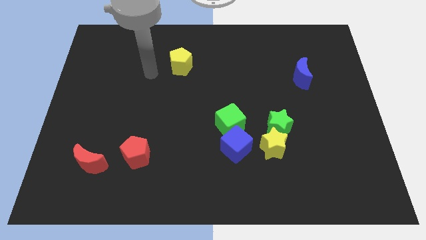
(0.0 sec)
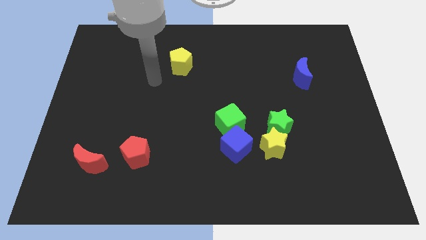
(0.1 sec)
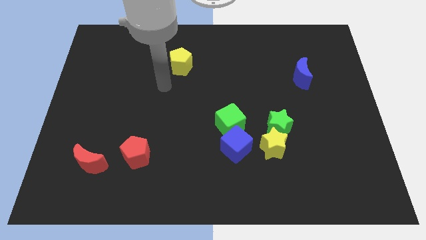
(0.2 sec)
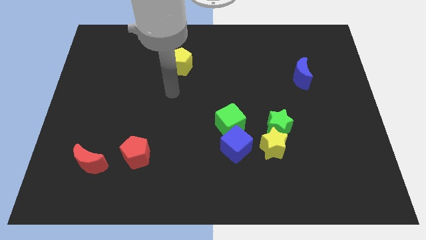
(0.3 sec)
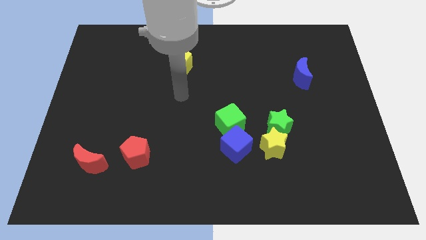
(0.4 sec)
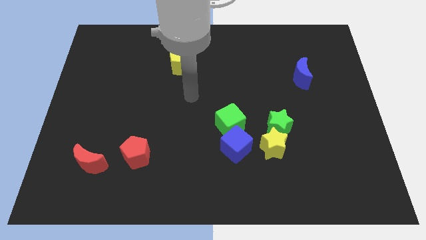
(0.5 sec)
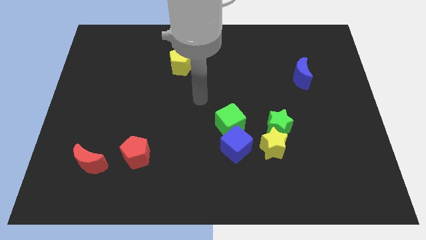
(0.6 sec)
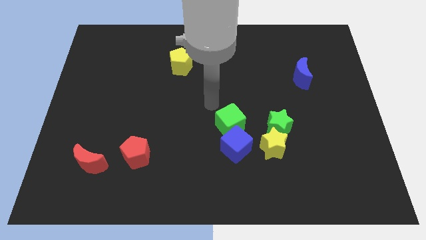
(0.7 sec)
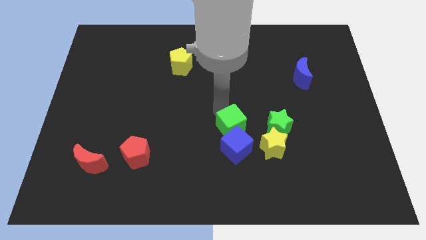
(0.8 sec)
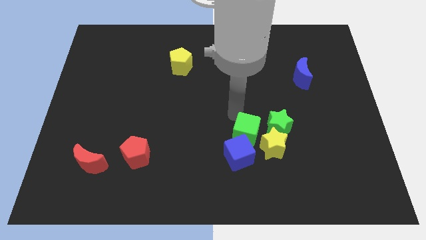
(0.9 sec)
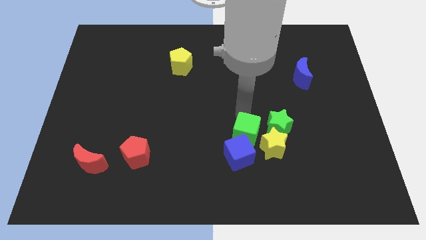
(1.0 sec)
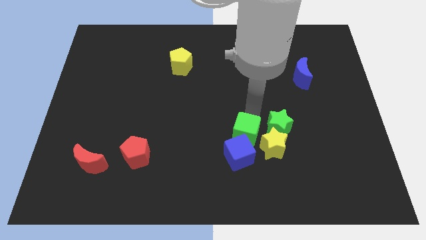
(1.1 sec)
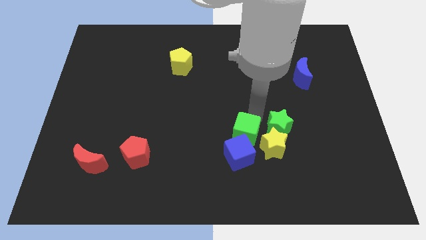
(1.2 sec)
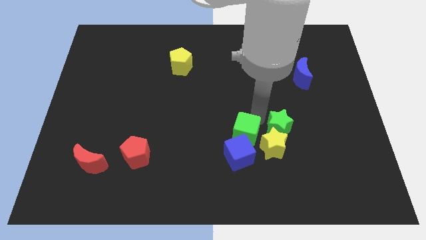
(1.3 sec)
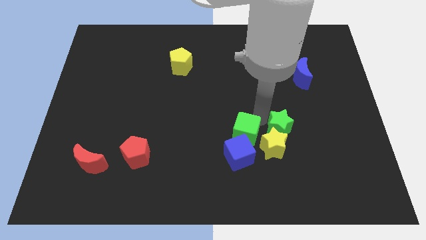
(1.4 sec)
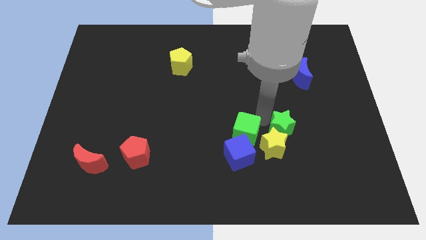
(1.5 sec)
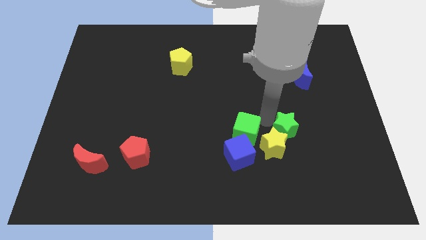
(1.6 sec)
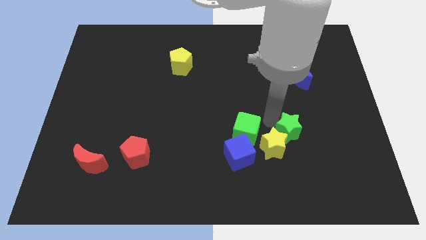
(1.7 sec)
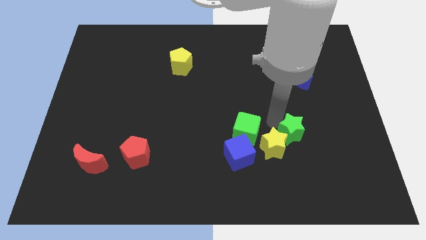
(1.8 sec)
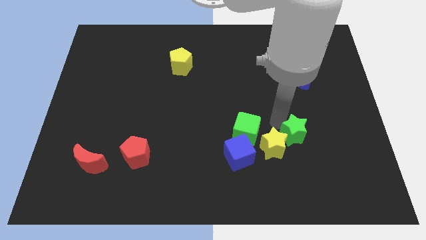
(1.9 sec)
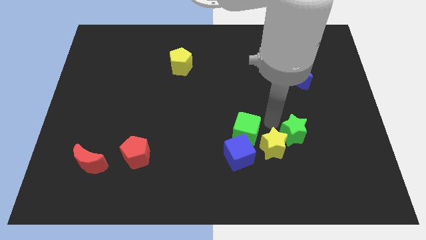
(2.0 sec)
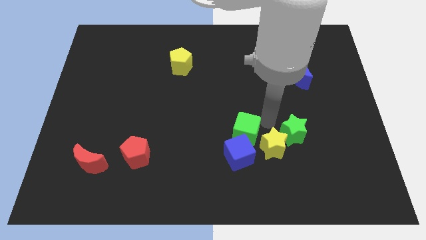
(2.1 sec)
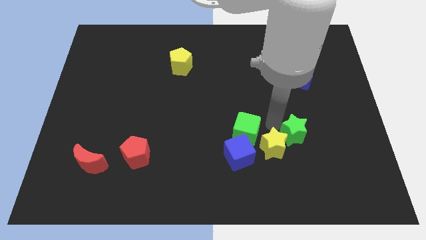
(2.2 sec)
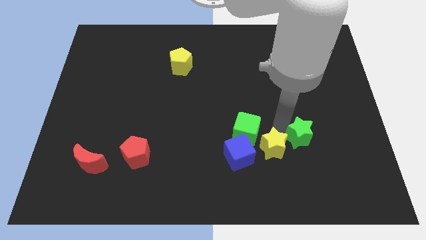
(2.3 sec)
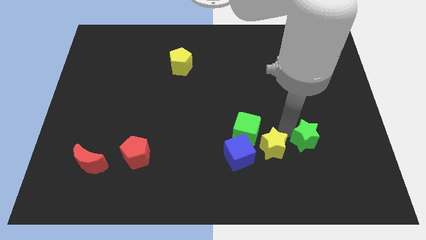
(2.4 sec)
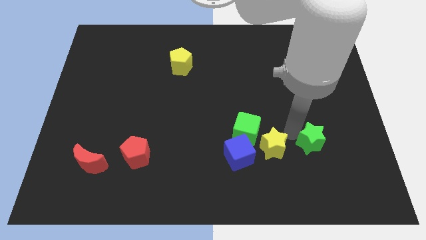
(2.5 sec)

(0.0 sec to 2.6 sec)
slide the green star downwards and to the right a bit

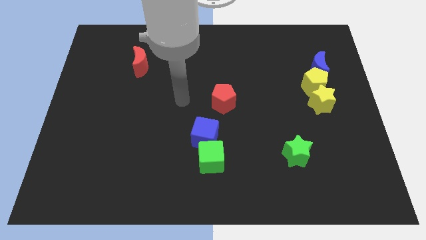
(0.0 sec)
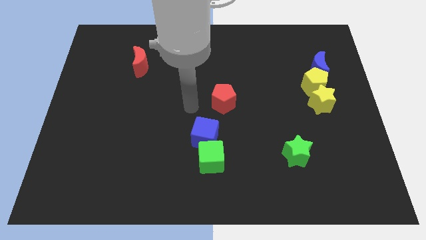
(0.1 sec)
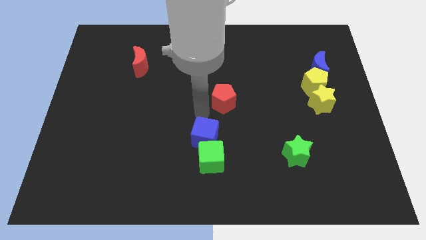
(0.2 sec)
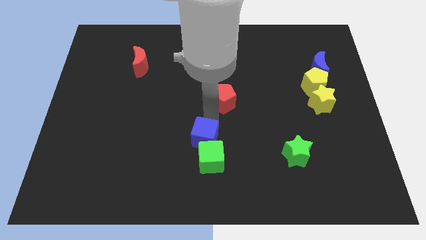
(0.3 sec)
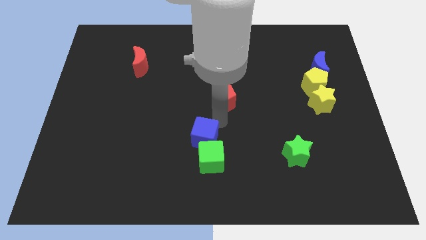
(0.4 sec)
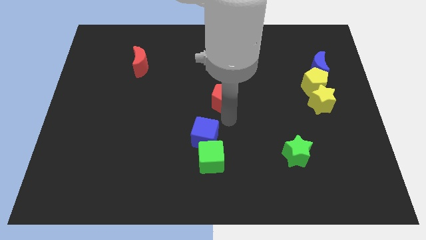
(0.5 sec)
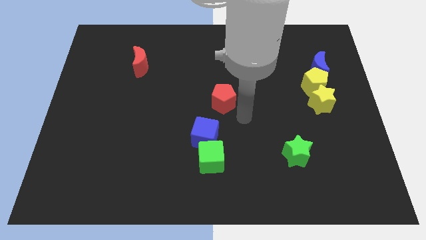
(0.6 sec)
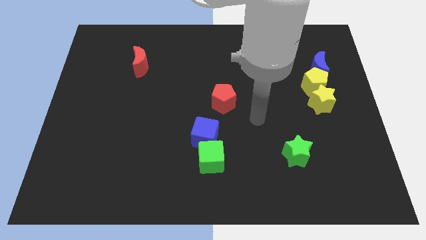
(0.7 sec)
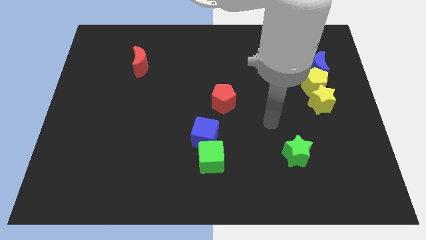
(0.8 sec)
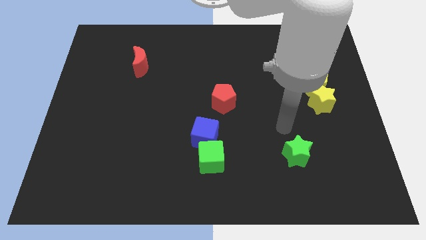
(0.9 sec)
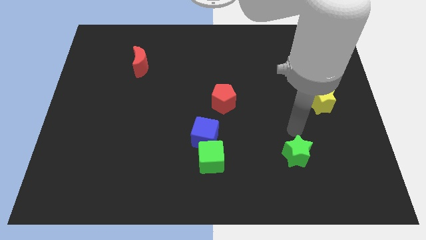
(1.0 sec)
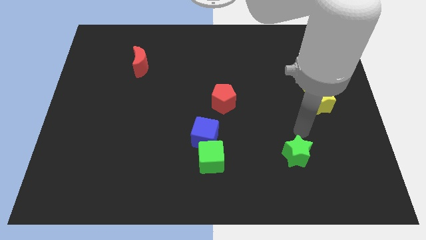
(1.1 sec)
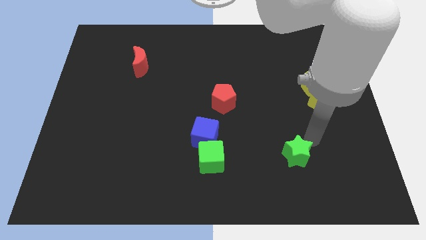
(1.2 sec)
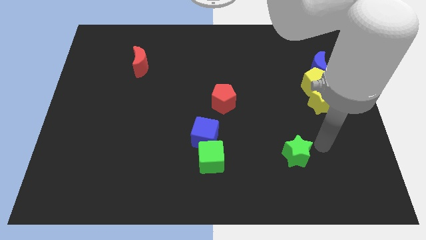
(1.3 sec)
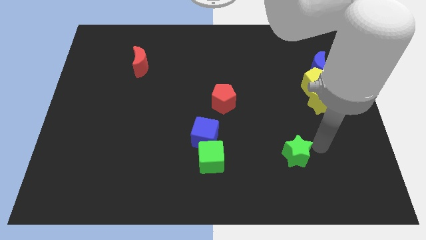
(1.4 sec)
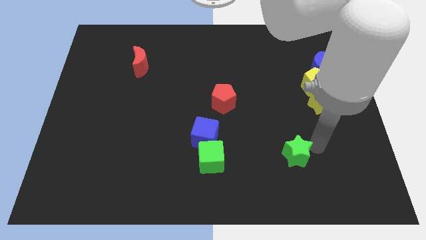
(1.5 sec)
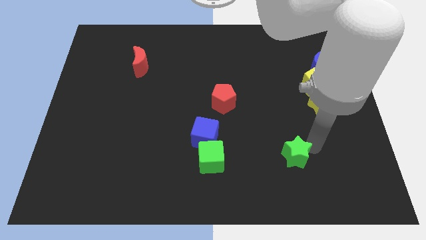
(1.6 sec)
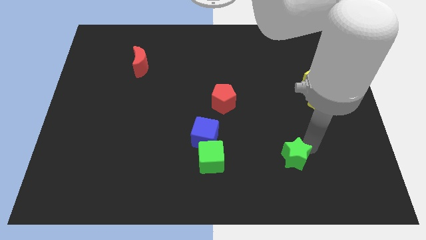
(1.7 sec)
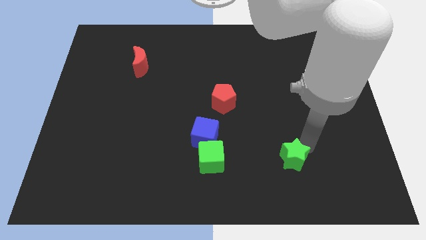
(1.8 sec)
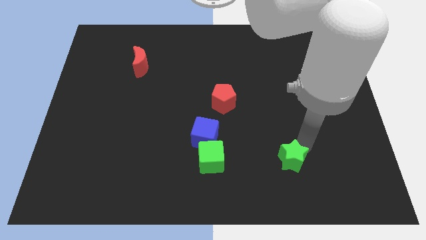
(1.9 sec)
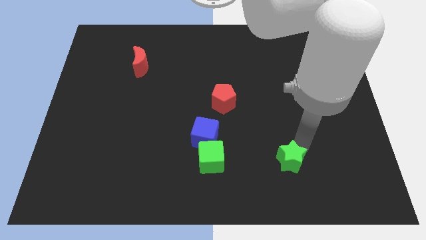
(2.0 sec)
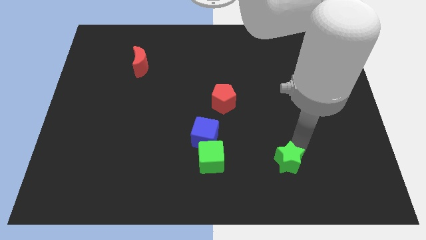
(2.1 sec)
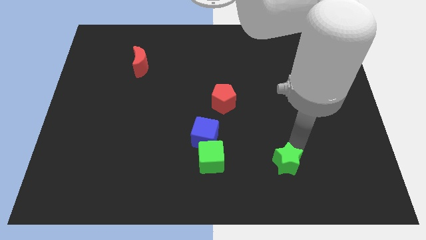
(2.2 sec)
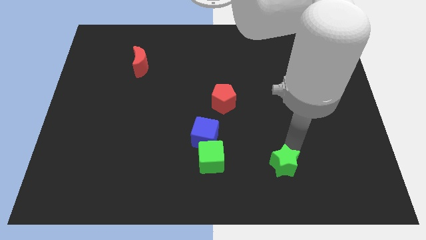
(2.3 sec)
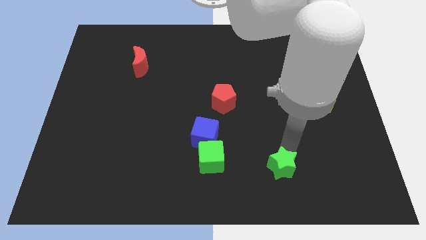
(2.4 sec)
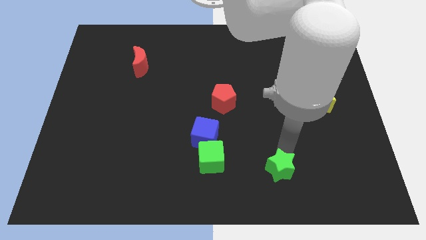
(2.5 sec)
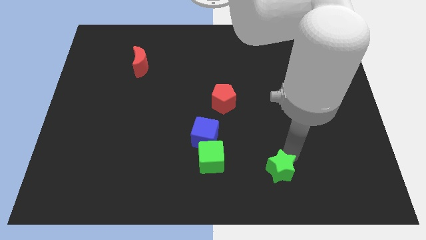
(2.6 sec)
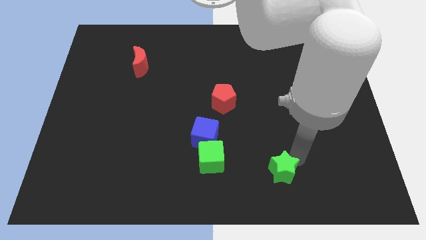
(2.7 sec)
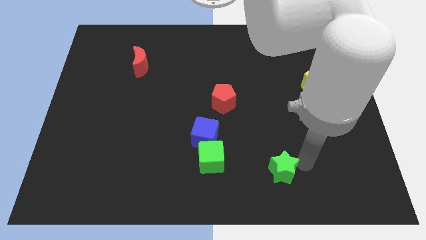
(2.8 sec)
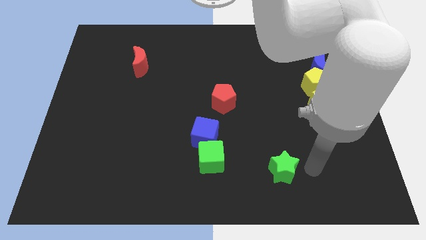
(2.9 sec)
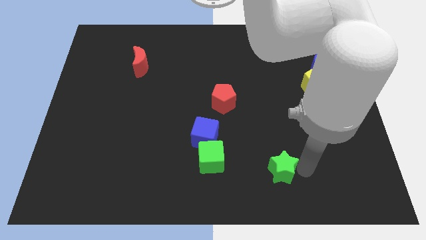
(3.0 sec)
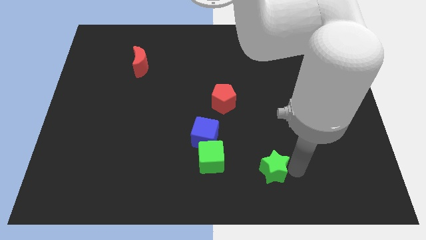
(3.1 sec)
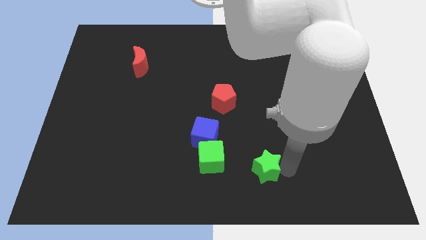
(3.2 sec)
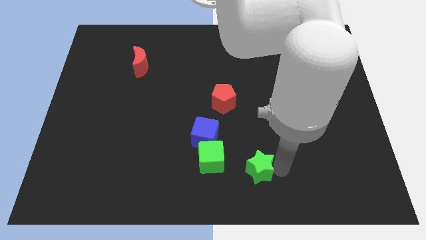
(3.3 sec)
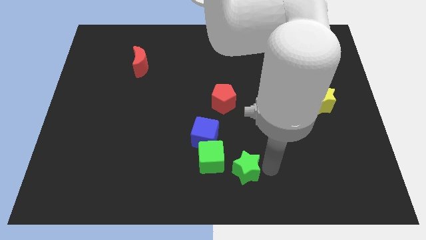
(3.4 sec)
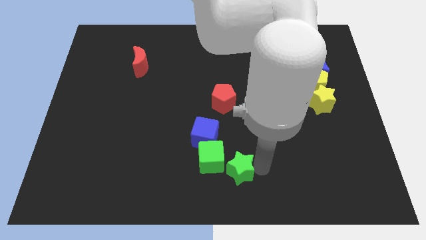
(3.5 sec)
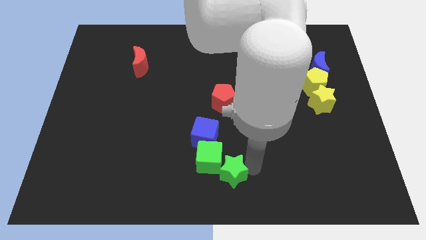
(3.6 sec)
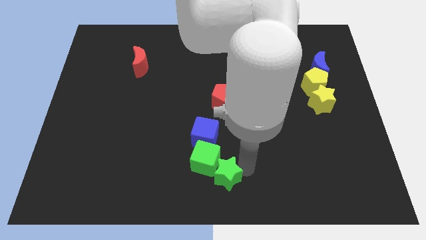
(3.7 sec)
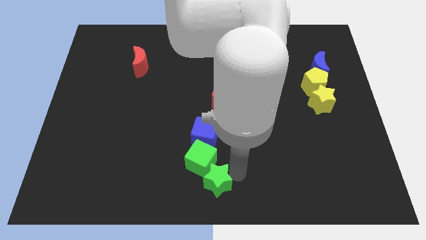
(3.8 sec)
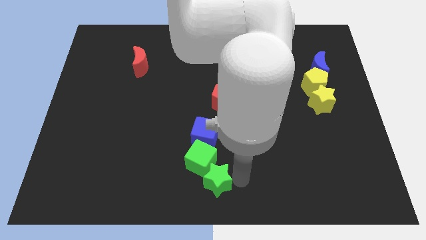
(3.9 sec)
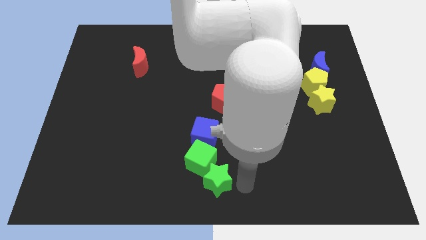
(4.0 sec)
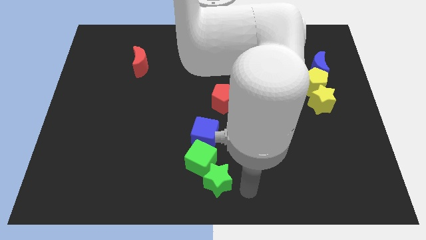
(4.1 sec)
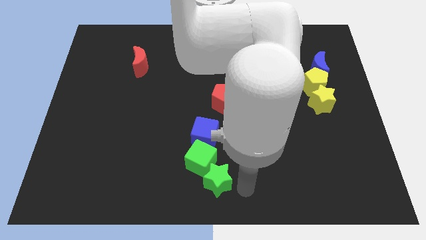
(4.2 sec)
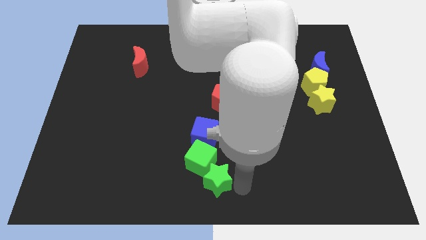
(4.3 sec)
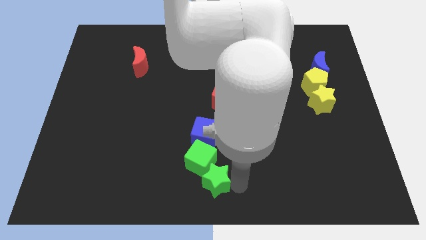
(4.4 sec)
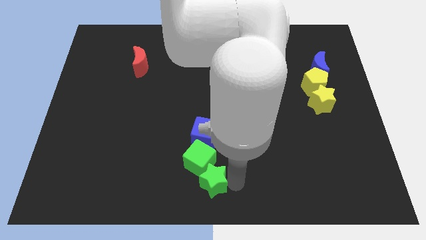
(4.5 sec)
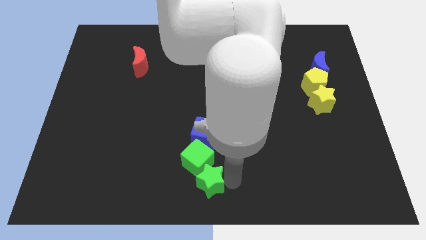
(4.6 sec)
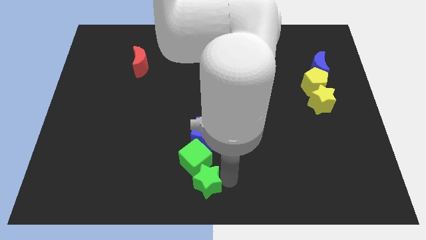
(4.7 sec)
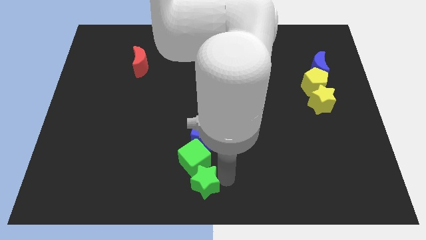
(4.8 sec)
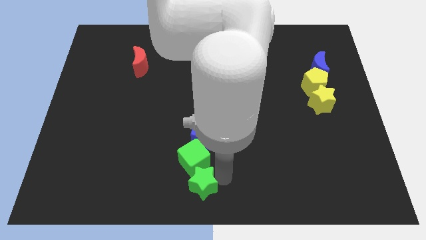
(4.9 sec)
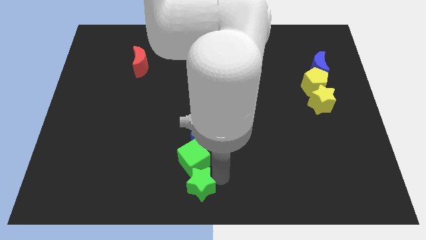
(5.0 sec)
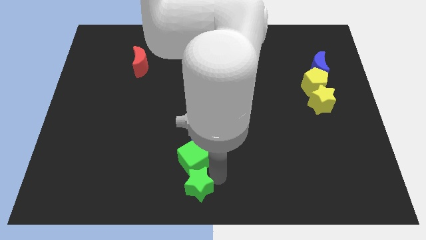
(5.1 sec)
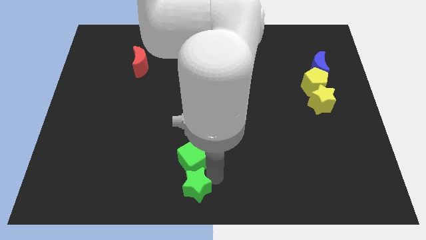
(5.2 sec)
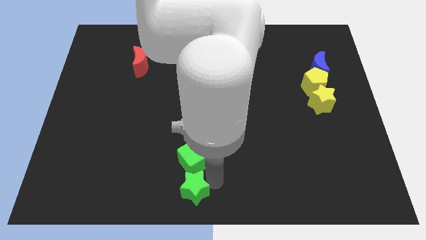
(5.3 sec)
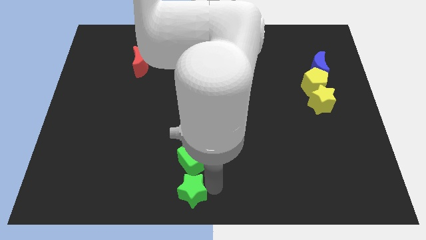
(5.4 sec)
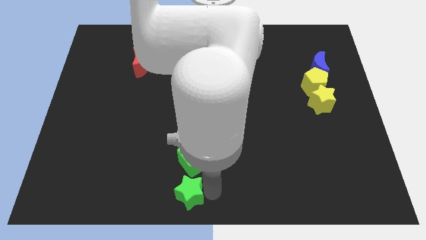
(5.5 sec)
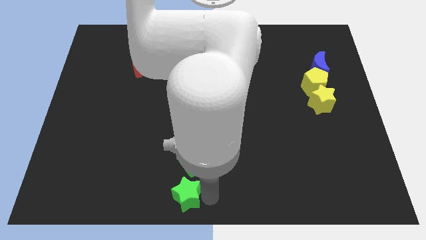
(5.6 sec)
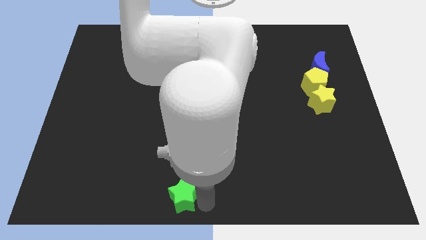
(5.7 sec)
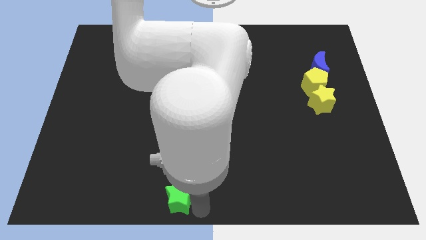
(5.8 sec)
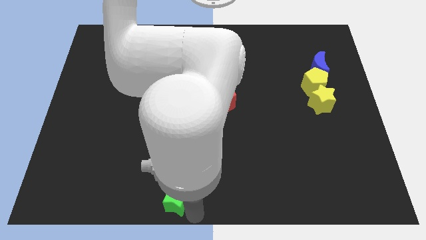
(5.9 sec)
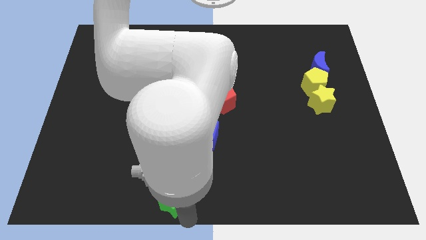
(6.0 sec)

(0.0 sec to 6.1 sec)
move the green star left
